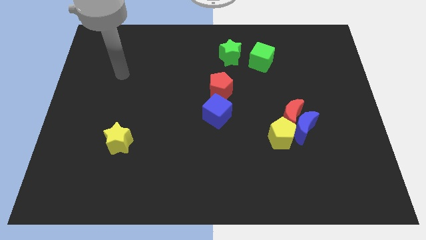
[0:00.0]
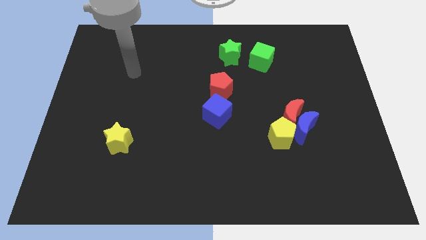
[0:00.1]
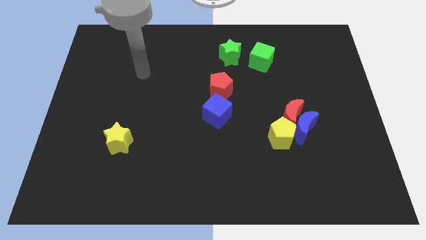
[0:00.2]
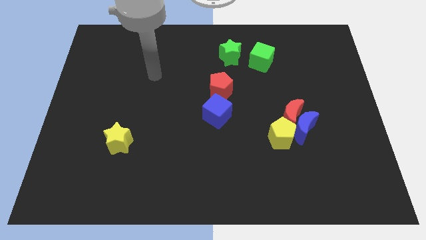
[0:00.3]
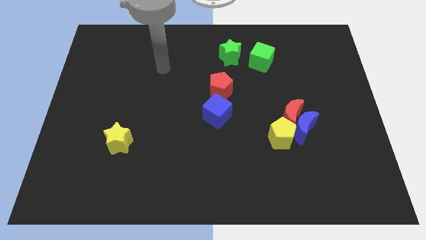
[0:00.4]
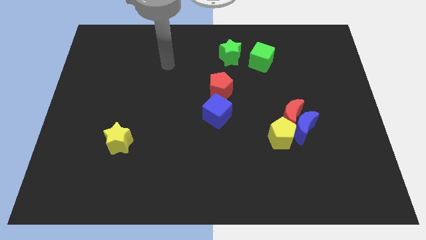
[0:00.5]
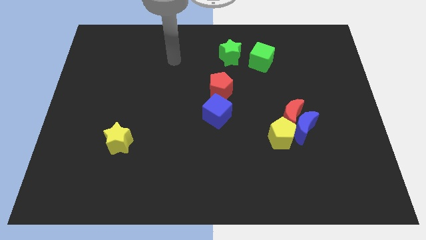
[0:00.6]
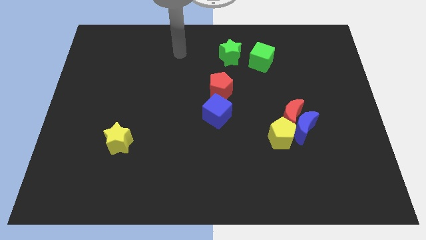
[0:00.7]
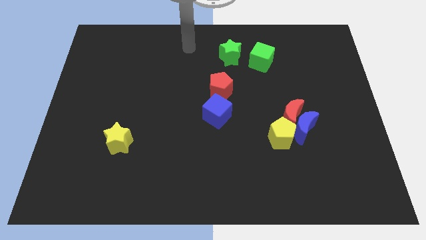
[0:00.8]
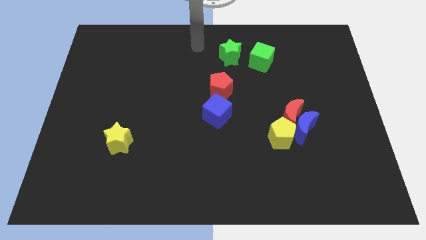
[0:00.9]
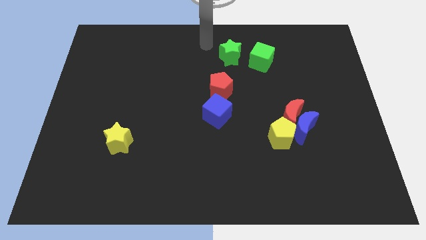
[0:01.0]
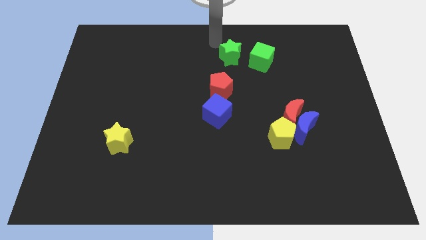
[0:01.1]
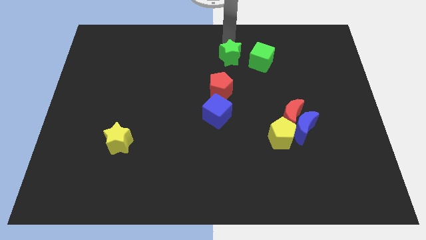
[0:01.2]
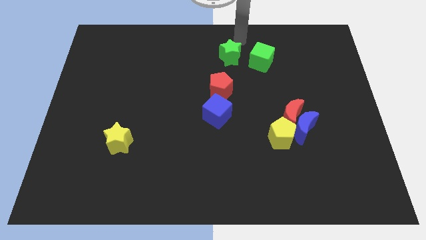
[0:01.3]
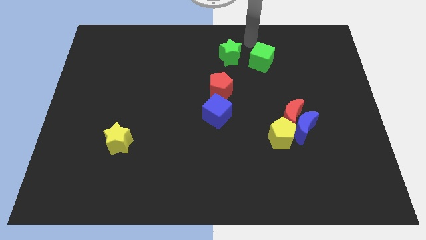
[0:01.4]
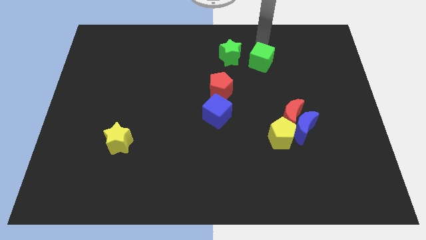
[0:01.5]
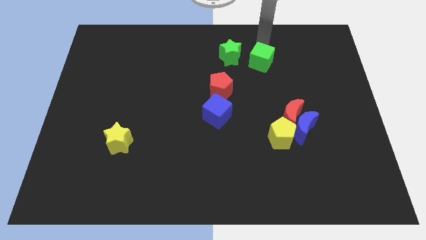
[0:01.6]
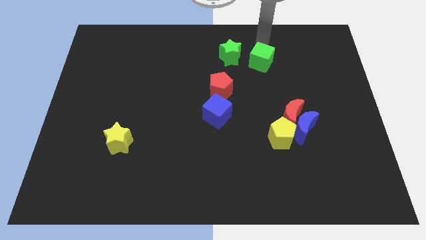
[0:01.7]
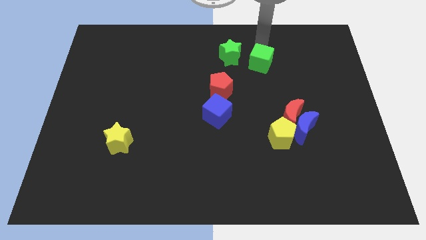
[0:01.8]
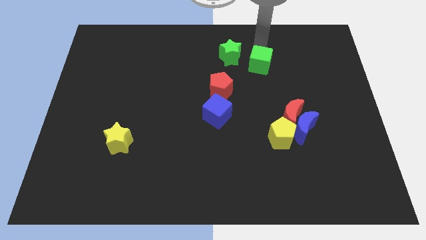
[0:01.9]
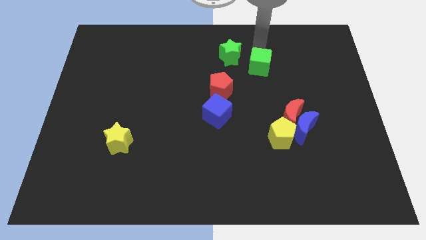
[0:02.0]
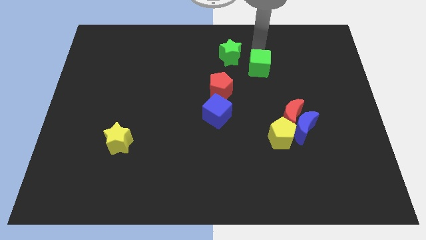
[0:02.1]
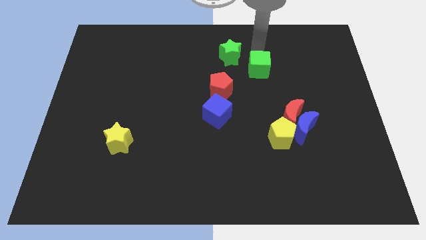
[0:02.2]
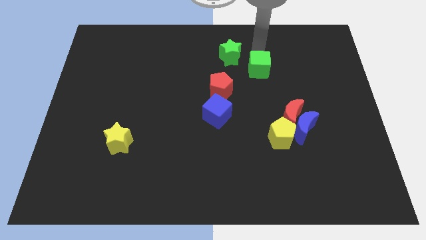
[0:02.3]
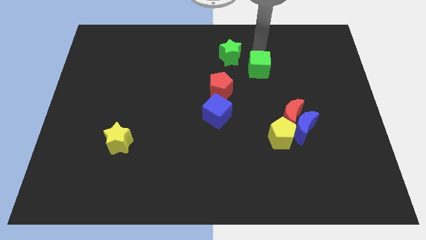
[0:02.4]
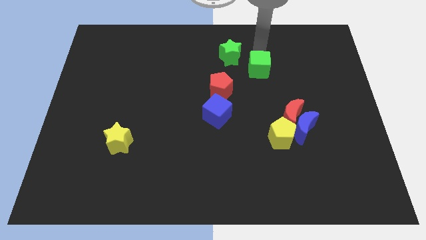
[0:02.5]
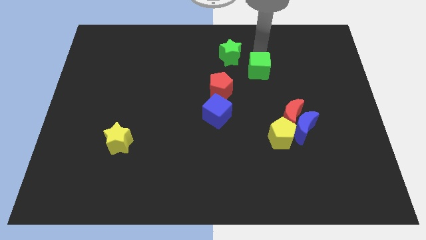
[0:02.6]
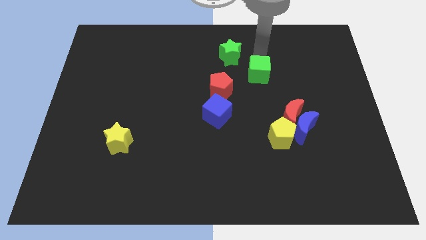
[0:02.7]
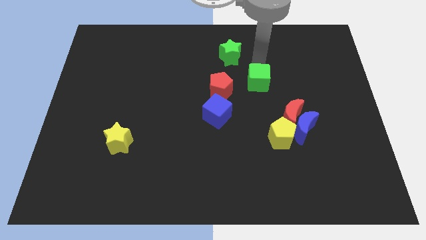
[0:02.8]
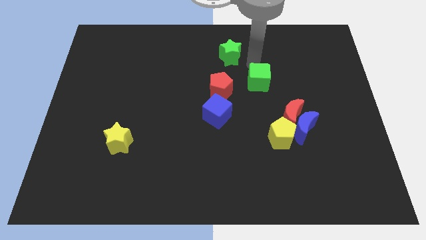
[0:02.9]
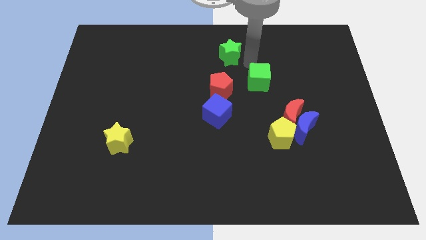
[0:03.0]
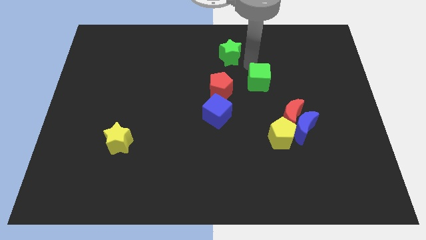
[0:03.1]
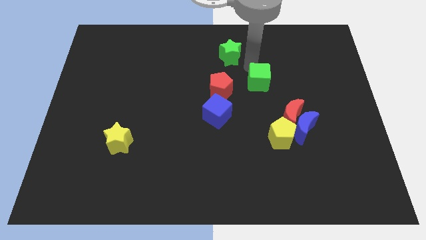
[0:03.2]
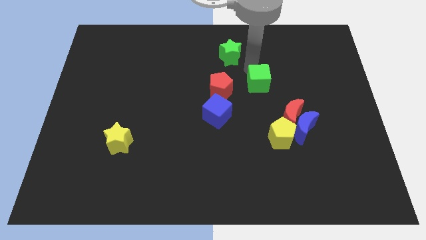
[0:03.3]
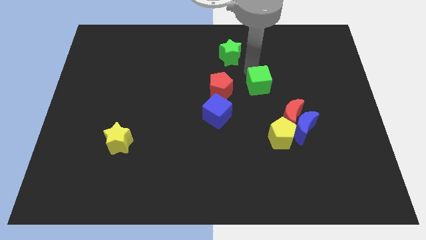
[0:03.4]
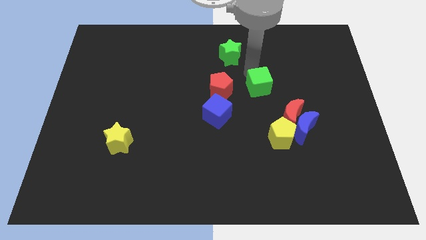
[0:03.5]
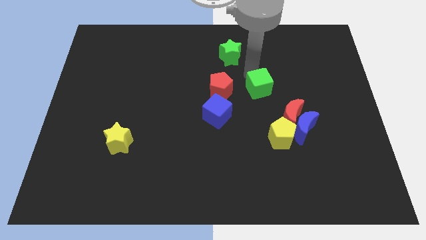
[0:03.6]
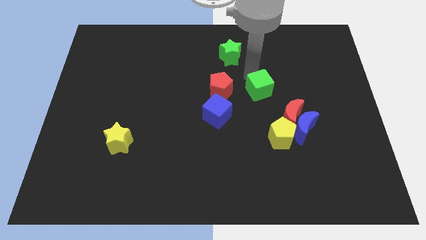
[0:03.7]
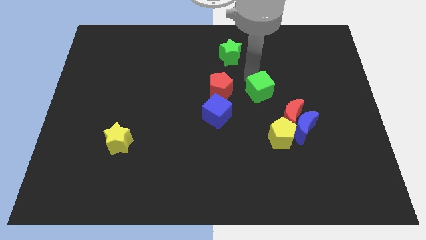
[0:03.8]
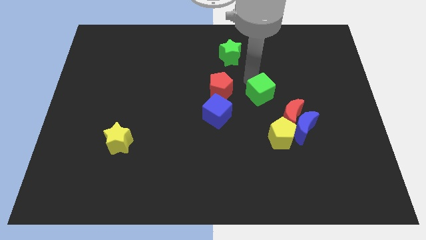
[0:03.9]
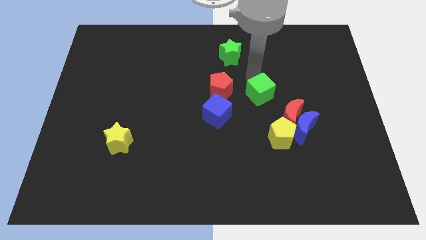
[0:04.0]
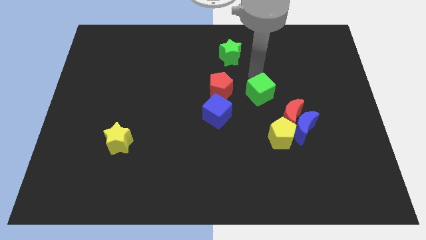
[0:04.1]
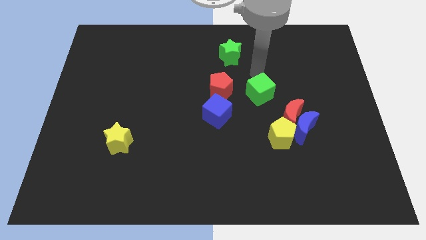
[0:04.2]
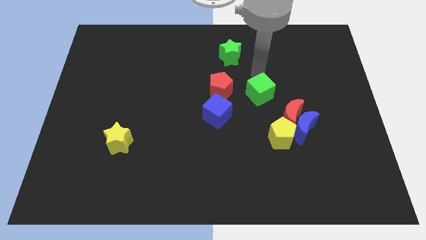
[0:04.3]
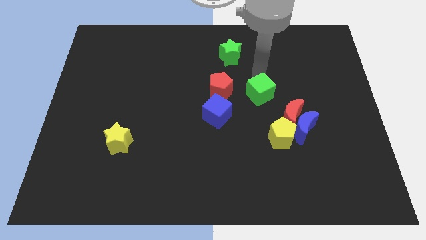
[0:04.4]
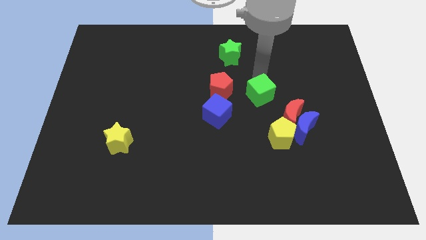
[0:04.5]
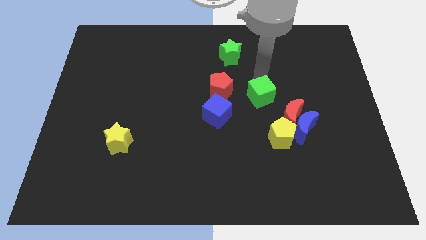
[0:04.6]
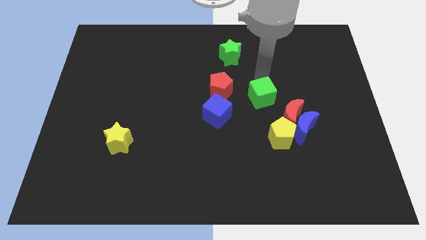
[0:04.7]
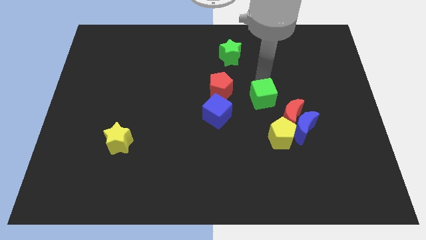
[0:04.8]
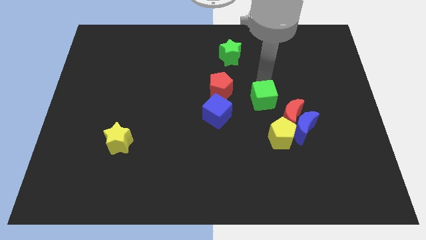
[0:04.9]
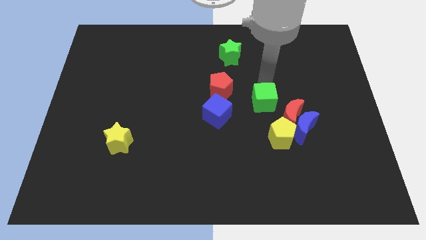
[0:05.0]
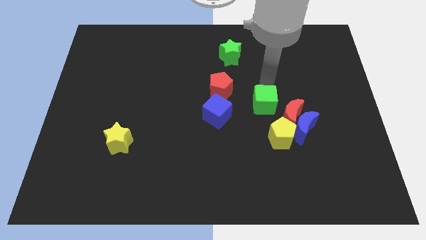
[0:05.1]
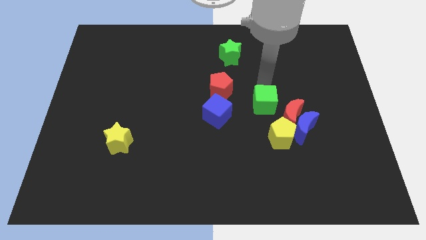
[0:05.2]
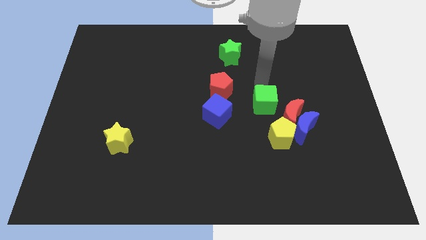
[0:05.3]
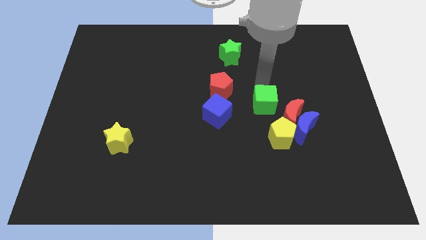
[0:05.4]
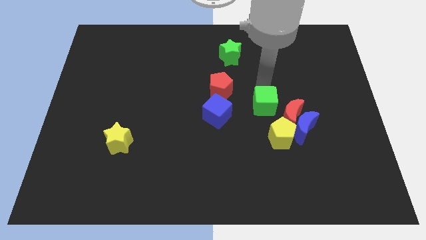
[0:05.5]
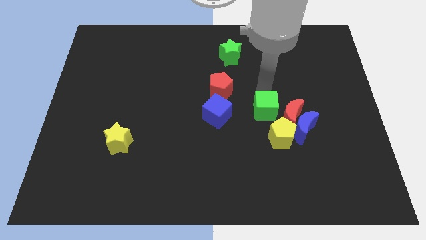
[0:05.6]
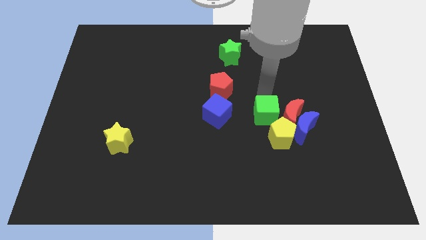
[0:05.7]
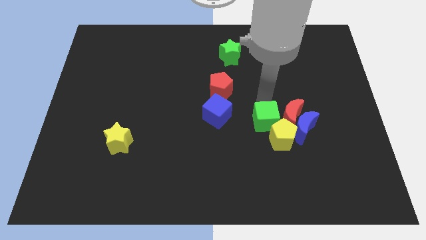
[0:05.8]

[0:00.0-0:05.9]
slide the green cube next to the yellow pentagon

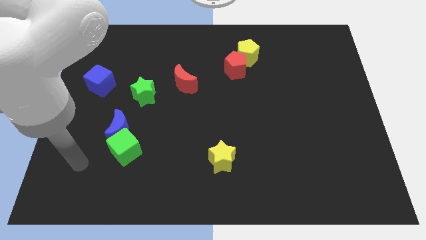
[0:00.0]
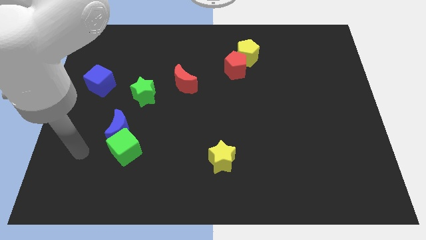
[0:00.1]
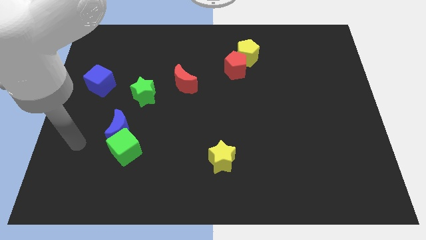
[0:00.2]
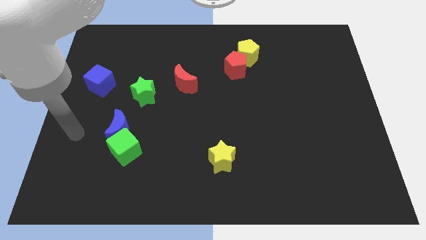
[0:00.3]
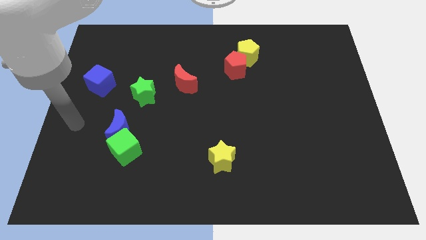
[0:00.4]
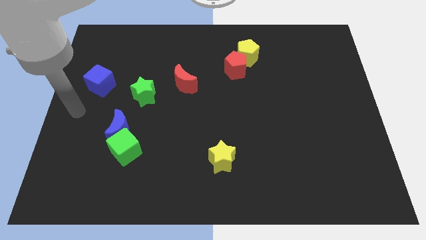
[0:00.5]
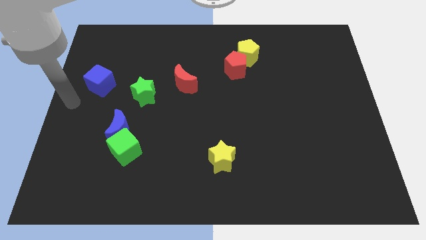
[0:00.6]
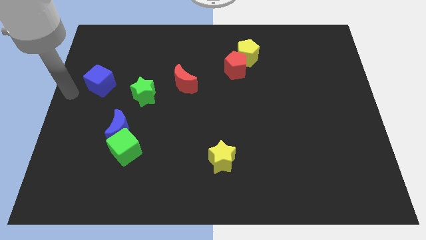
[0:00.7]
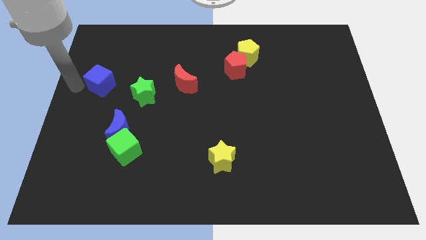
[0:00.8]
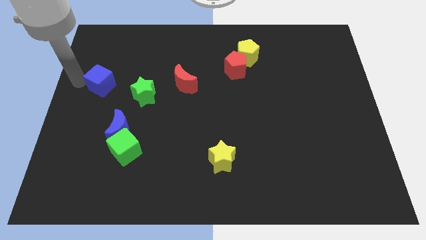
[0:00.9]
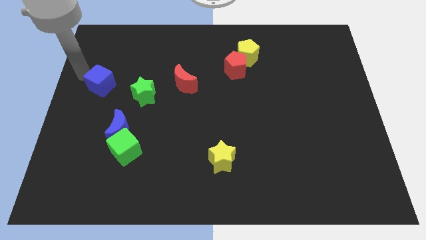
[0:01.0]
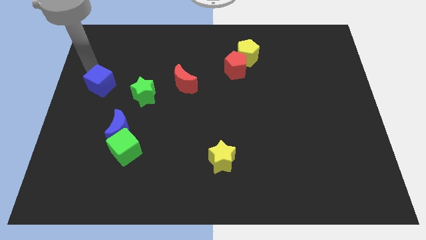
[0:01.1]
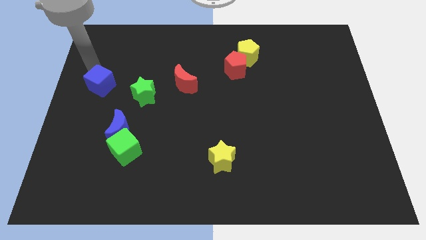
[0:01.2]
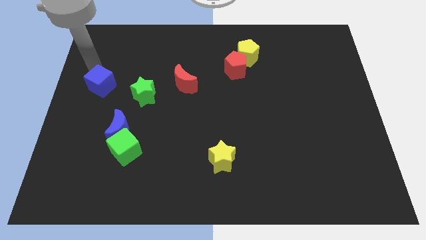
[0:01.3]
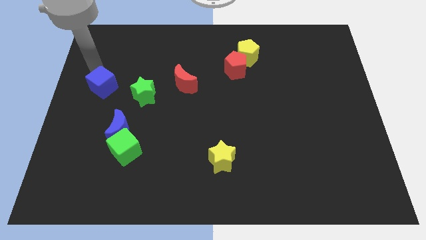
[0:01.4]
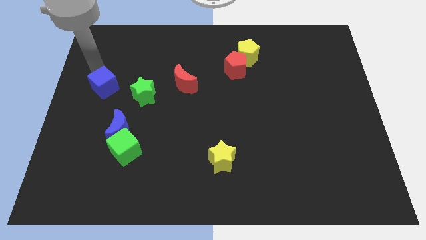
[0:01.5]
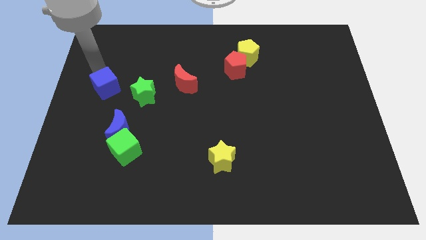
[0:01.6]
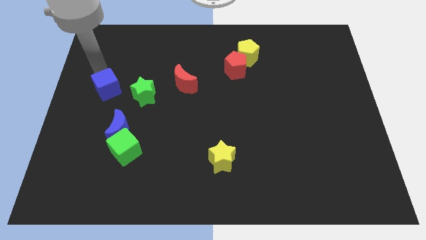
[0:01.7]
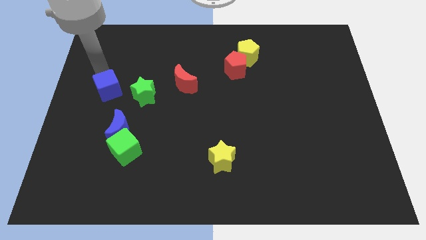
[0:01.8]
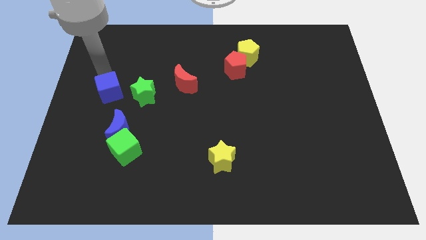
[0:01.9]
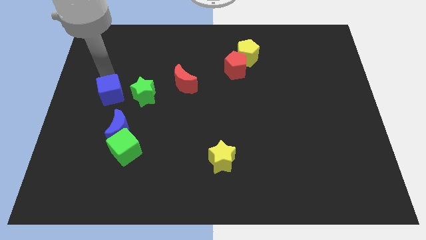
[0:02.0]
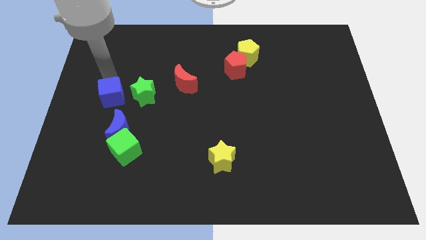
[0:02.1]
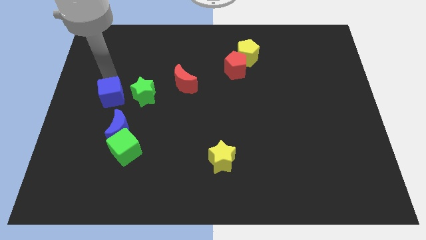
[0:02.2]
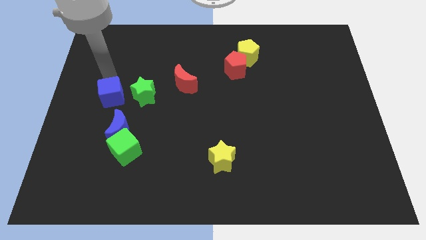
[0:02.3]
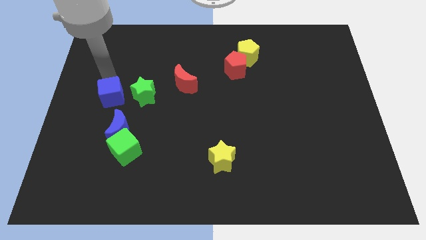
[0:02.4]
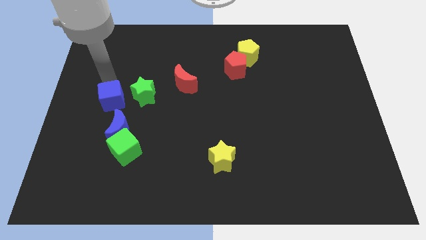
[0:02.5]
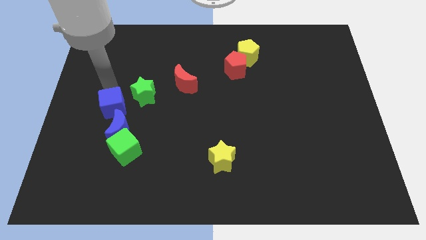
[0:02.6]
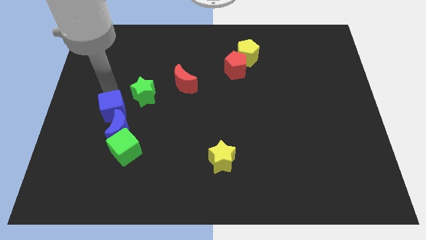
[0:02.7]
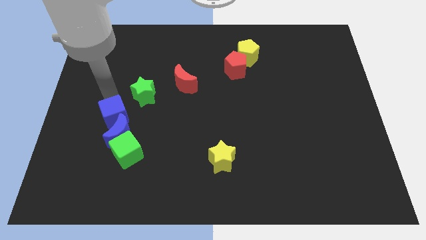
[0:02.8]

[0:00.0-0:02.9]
push the blue cube close to the blue moon
